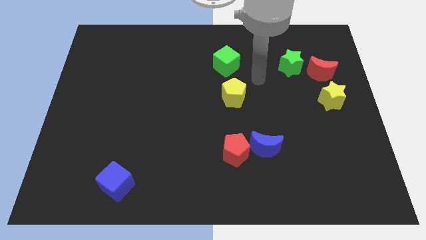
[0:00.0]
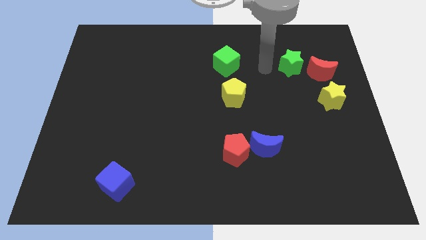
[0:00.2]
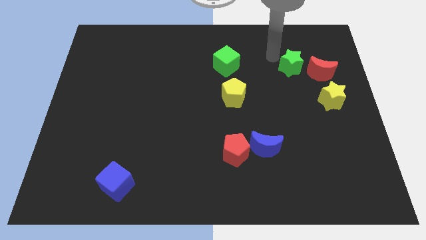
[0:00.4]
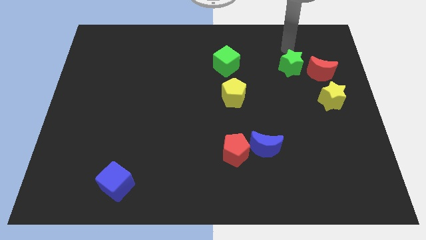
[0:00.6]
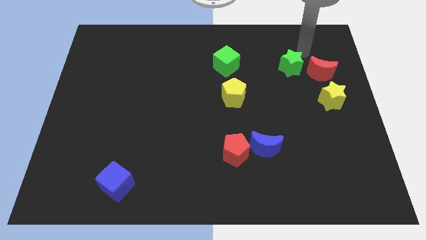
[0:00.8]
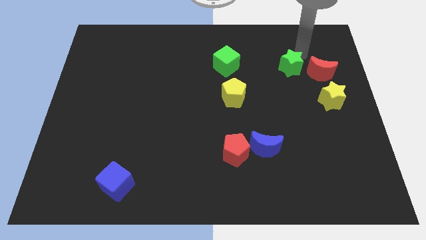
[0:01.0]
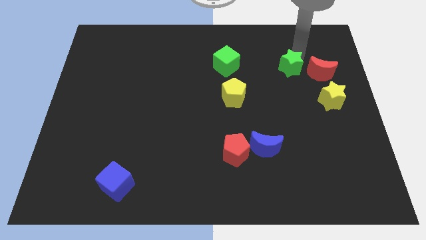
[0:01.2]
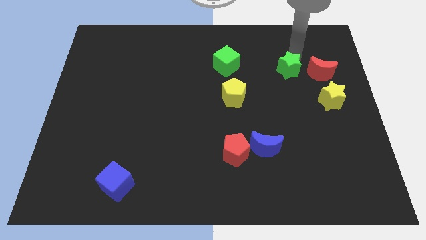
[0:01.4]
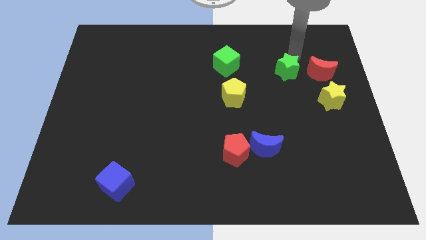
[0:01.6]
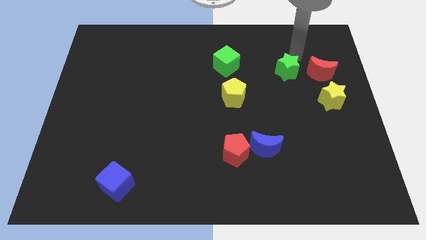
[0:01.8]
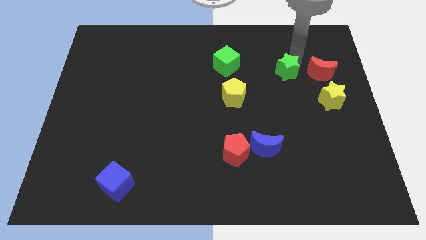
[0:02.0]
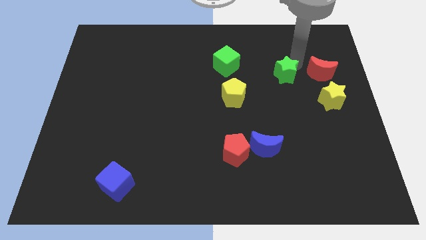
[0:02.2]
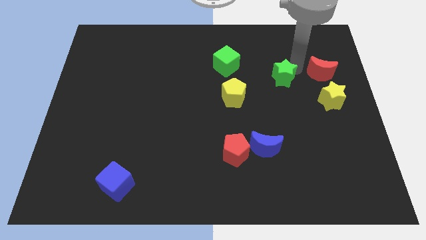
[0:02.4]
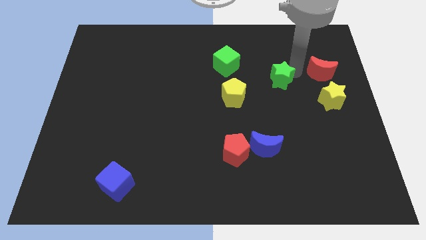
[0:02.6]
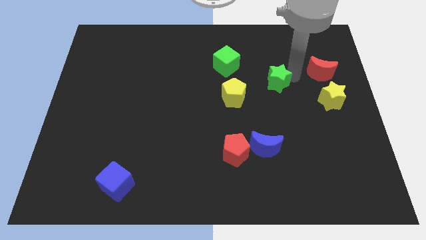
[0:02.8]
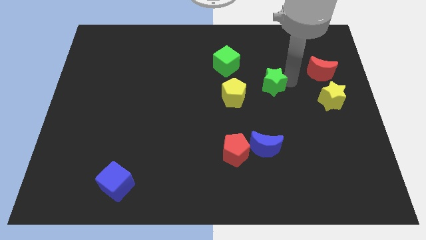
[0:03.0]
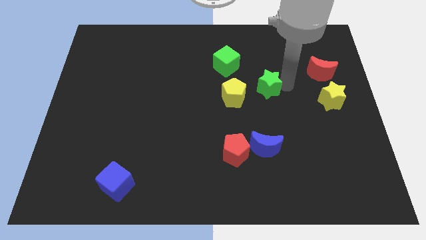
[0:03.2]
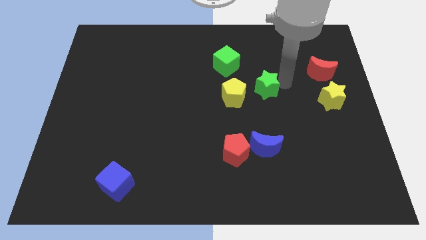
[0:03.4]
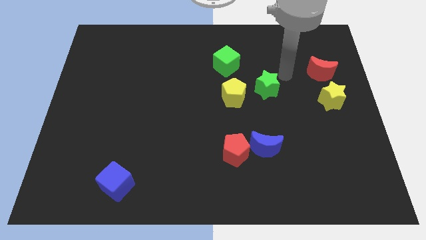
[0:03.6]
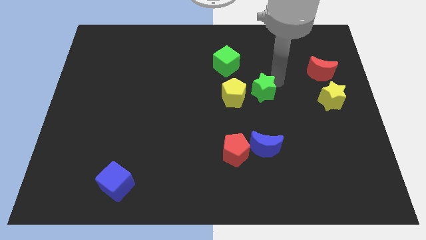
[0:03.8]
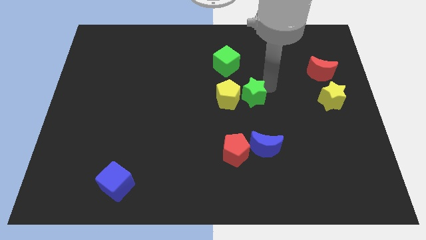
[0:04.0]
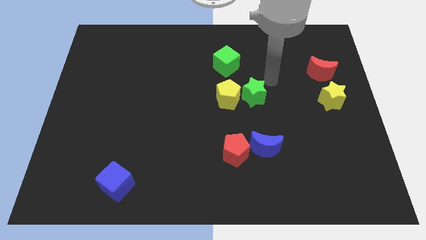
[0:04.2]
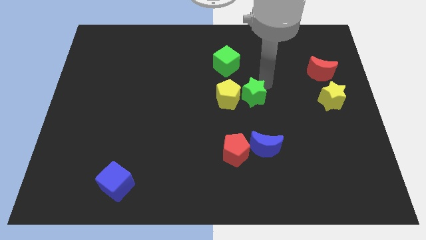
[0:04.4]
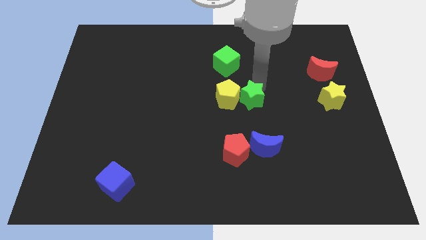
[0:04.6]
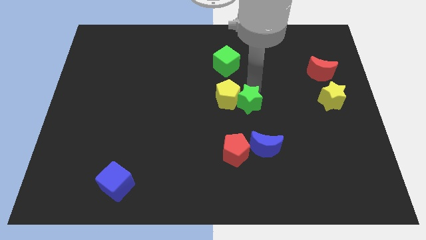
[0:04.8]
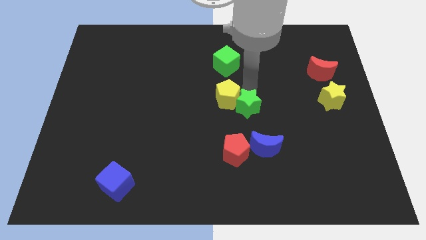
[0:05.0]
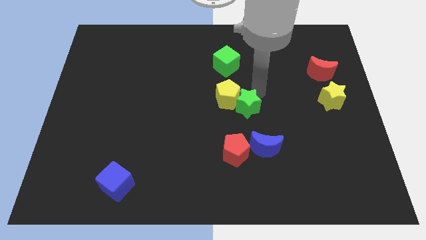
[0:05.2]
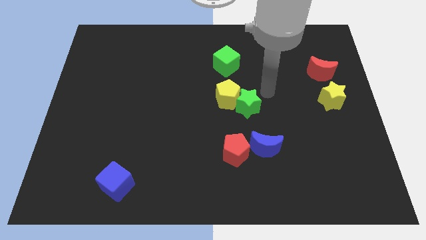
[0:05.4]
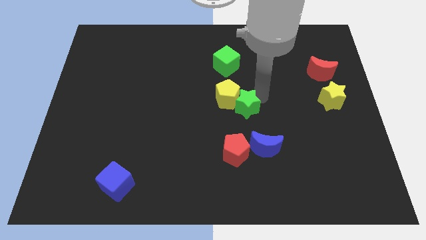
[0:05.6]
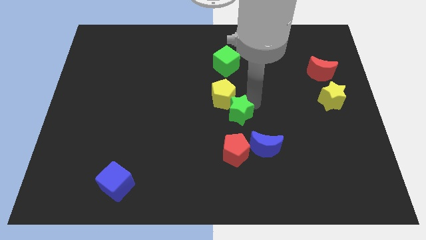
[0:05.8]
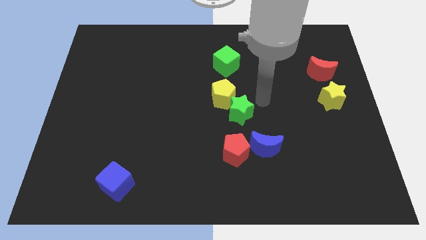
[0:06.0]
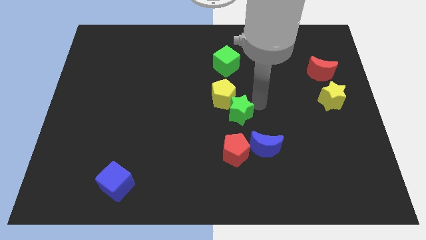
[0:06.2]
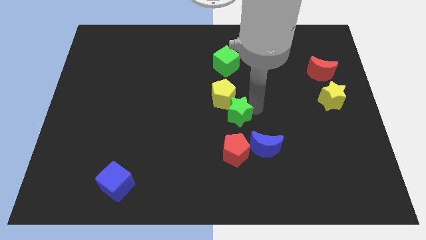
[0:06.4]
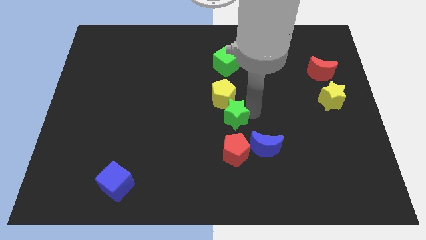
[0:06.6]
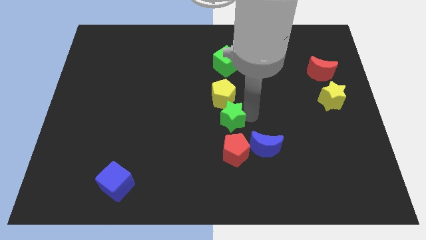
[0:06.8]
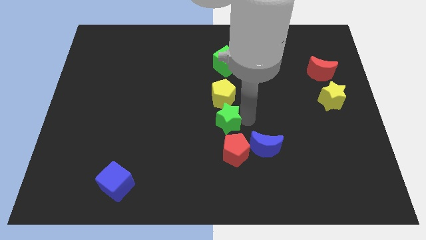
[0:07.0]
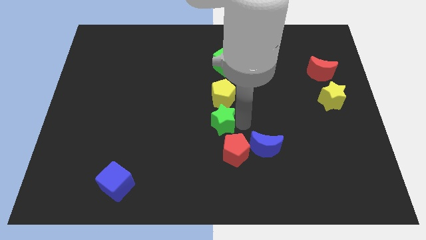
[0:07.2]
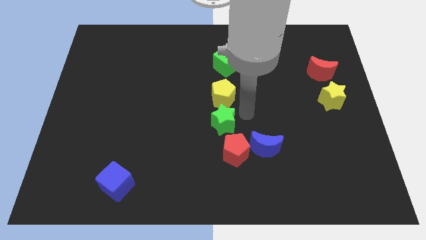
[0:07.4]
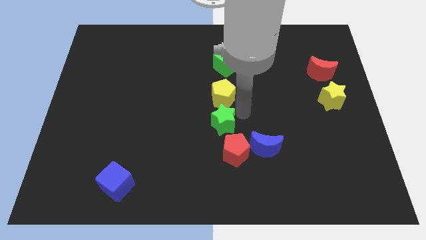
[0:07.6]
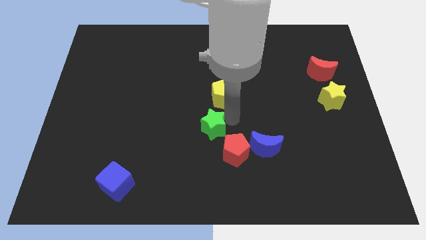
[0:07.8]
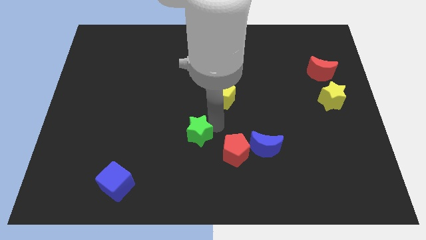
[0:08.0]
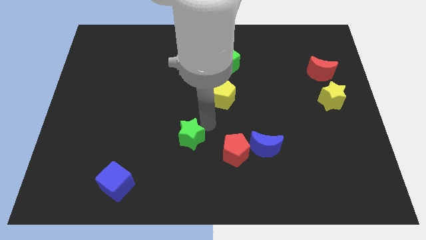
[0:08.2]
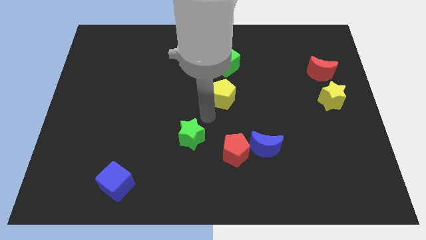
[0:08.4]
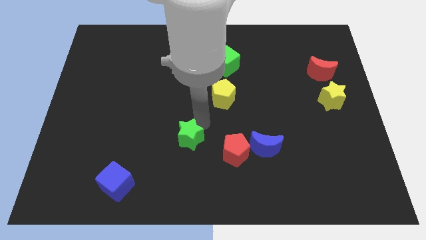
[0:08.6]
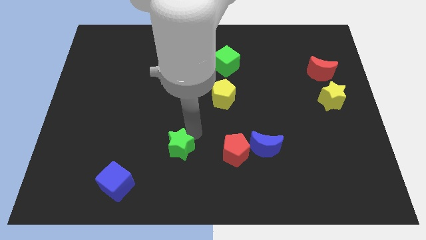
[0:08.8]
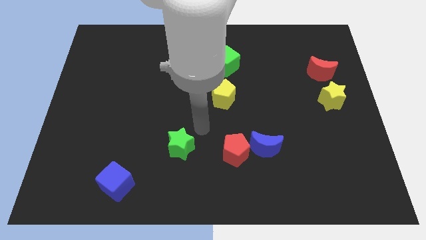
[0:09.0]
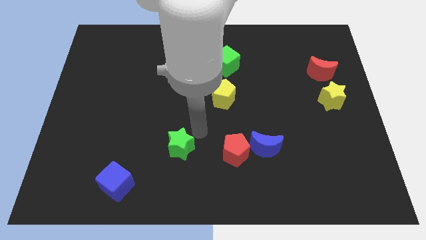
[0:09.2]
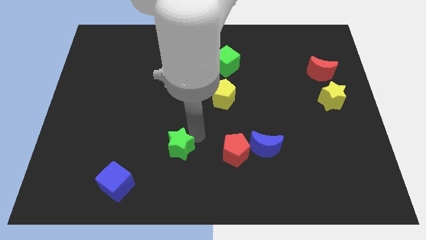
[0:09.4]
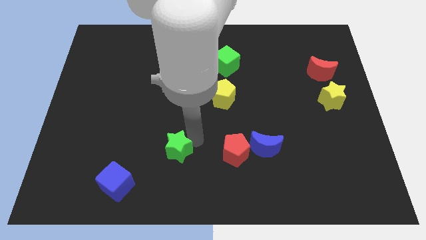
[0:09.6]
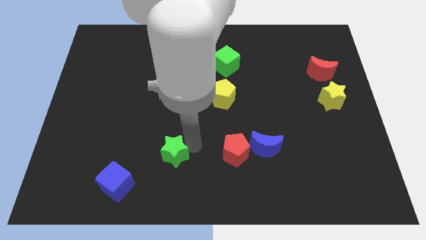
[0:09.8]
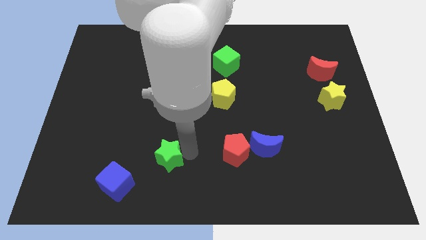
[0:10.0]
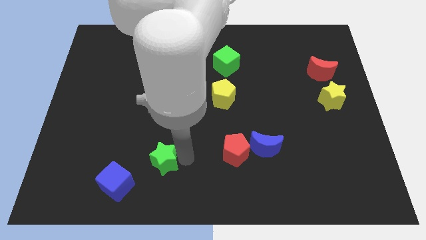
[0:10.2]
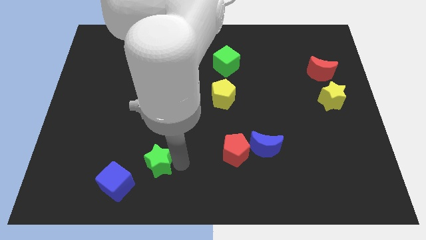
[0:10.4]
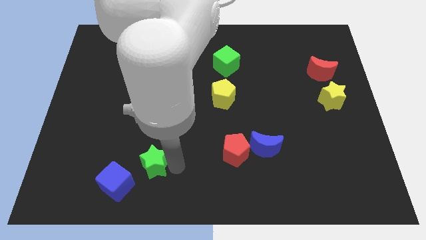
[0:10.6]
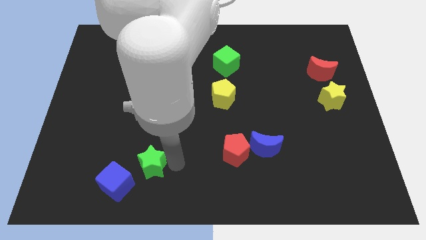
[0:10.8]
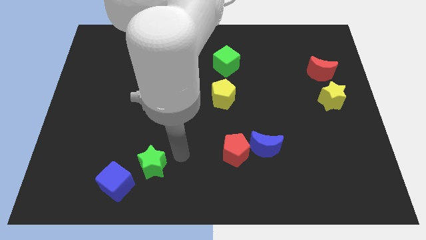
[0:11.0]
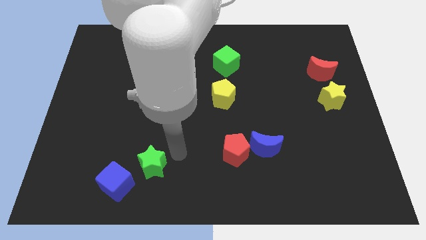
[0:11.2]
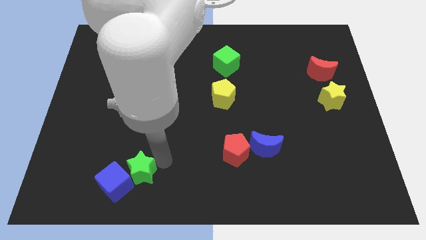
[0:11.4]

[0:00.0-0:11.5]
push the green star towards the blue cube

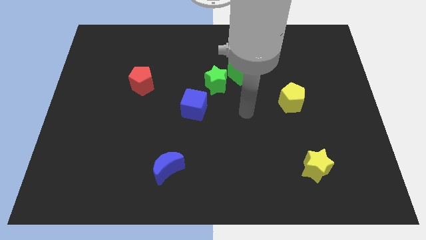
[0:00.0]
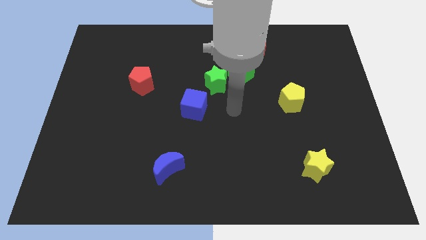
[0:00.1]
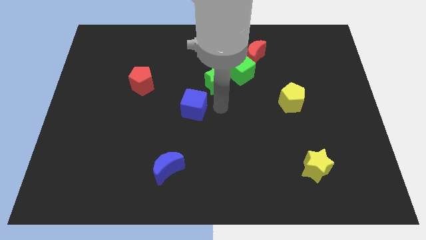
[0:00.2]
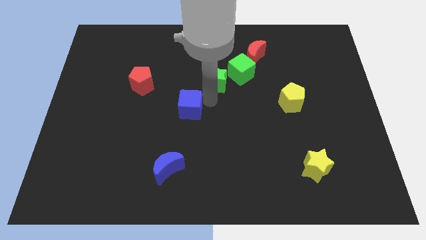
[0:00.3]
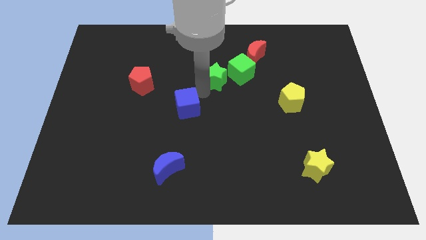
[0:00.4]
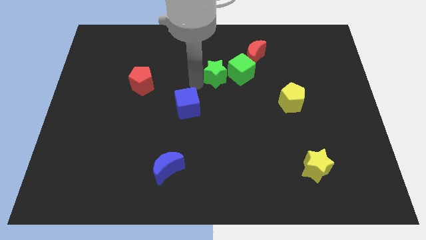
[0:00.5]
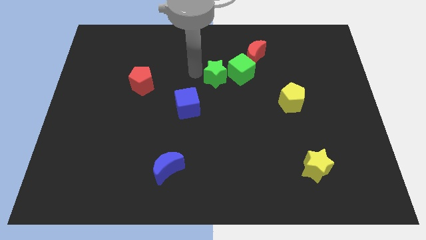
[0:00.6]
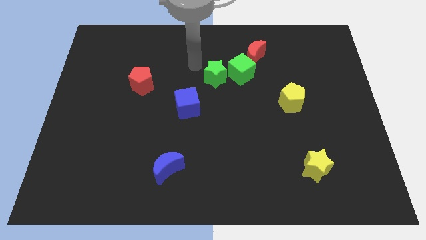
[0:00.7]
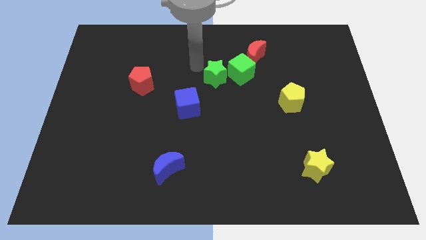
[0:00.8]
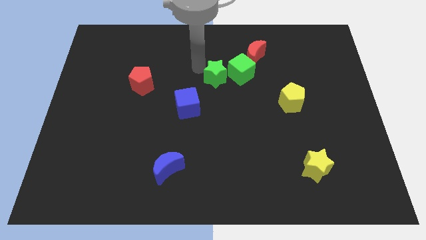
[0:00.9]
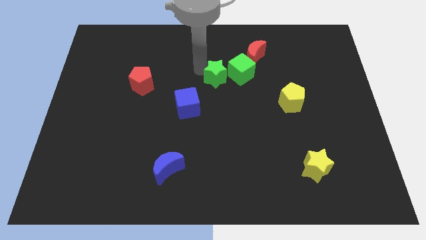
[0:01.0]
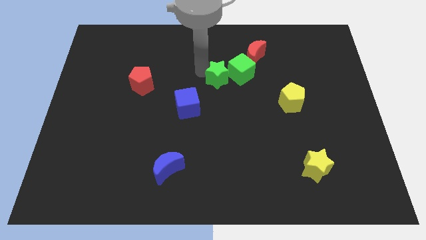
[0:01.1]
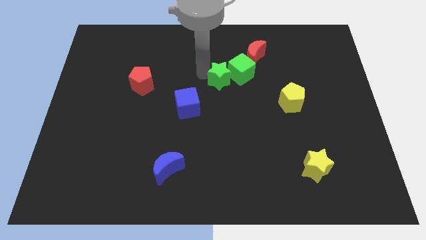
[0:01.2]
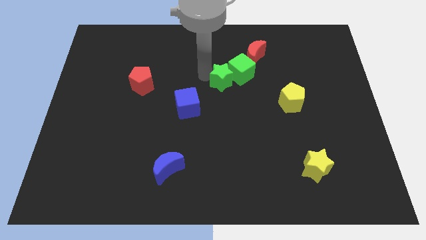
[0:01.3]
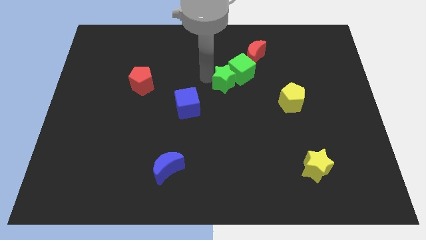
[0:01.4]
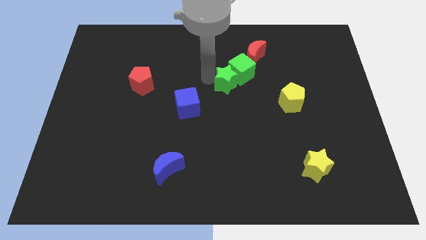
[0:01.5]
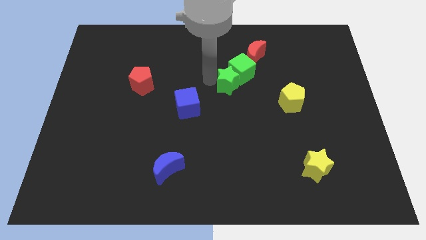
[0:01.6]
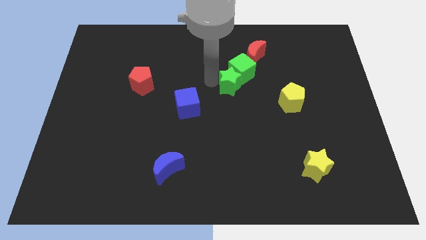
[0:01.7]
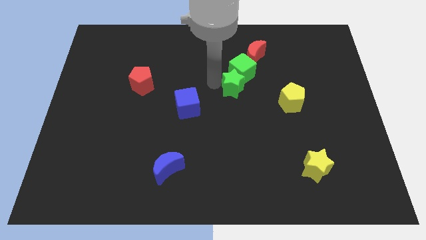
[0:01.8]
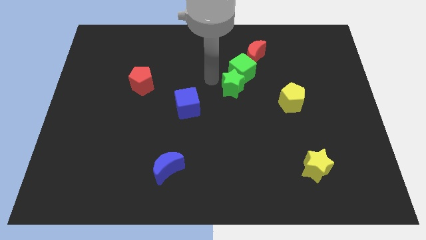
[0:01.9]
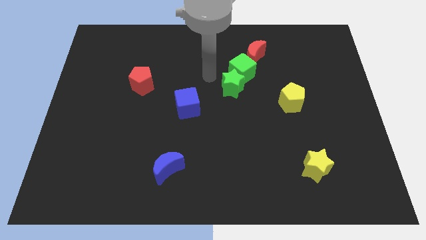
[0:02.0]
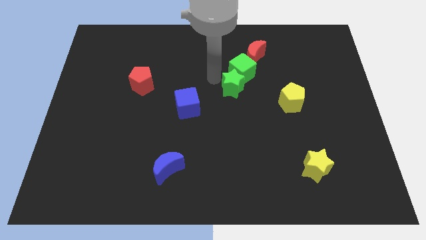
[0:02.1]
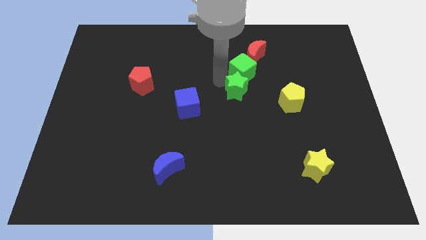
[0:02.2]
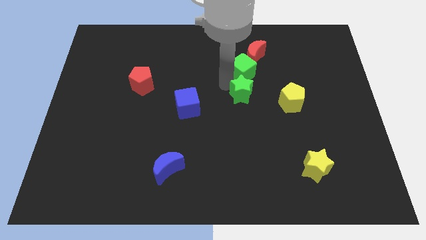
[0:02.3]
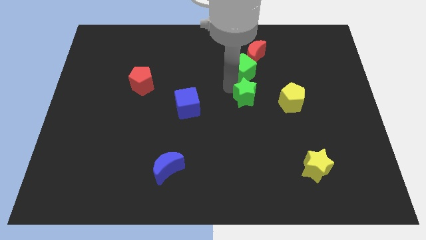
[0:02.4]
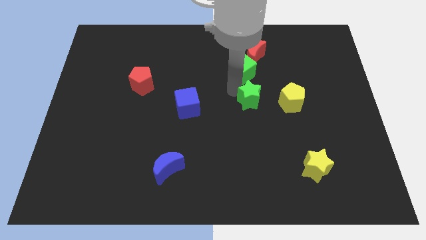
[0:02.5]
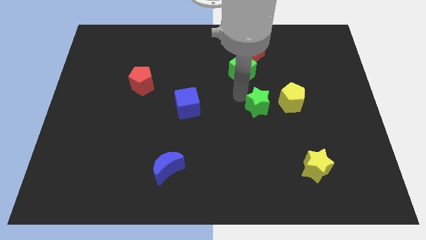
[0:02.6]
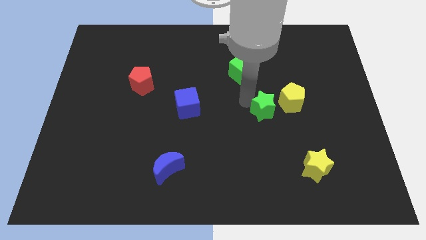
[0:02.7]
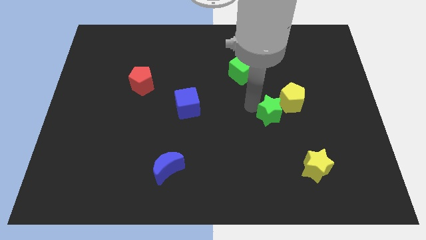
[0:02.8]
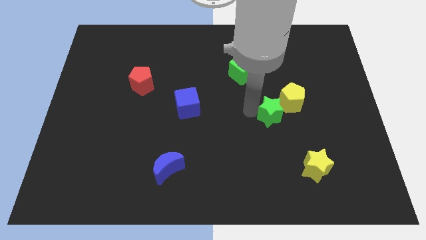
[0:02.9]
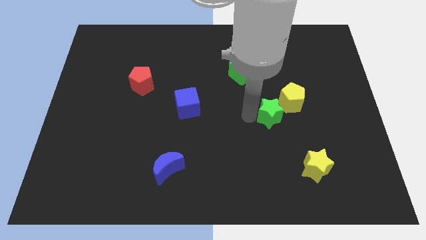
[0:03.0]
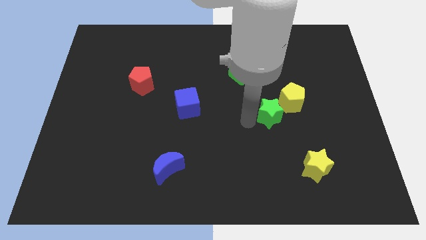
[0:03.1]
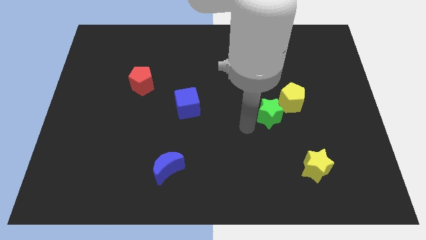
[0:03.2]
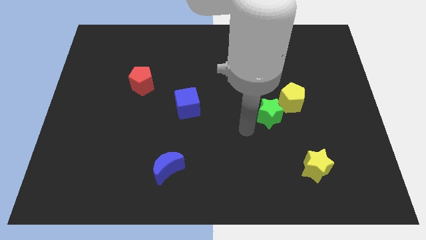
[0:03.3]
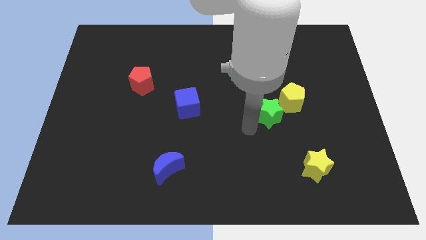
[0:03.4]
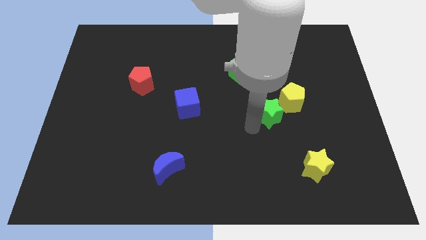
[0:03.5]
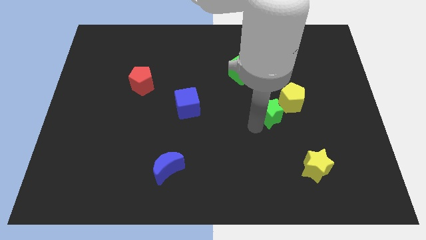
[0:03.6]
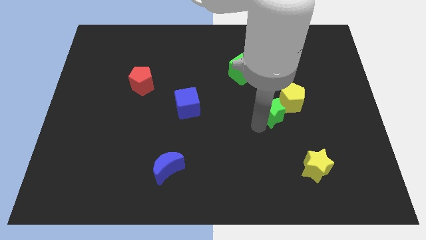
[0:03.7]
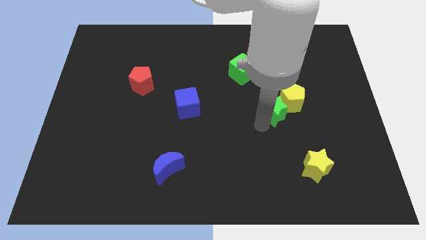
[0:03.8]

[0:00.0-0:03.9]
put the green star to the yellow pentagon
